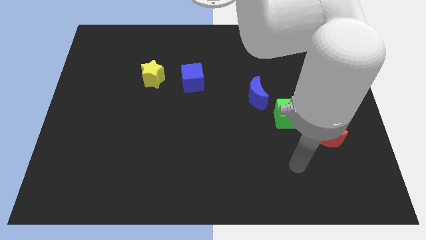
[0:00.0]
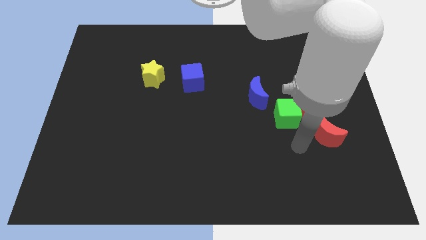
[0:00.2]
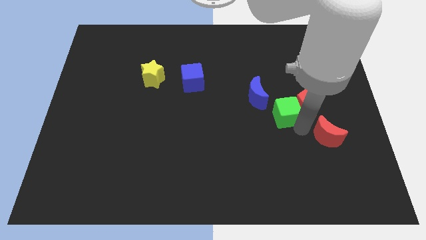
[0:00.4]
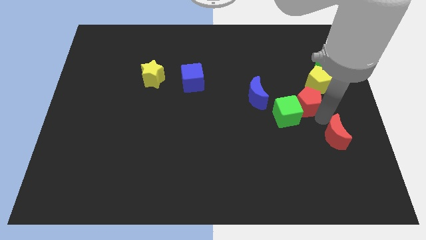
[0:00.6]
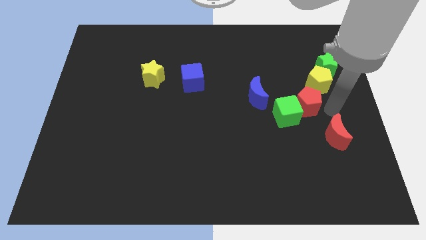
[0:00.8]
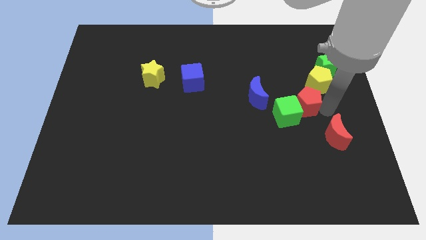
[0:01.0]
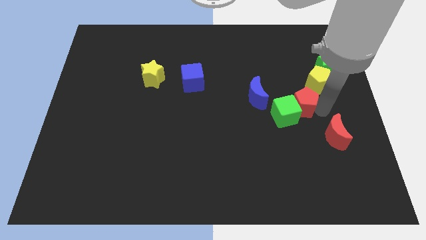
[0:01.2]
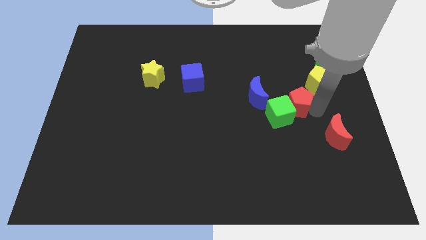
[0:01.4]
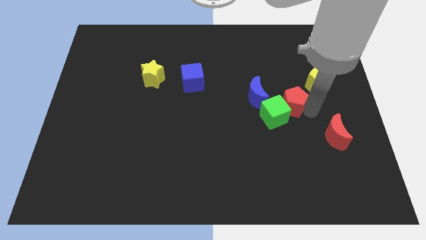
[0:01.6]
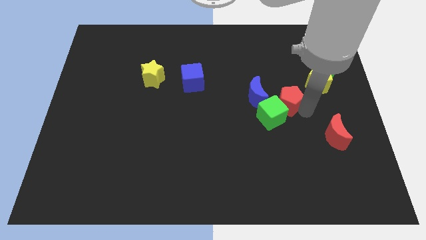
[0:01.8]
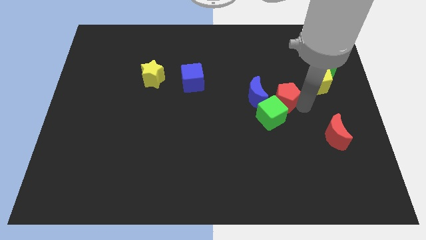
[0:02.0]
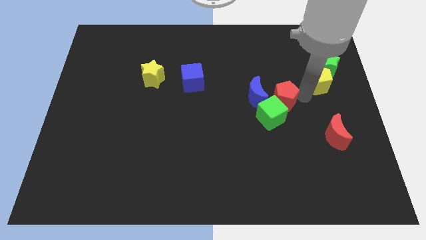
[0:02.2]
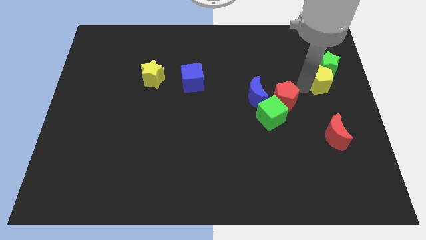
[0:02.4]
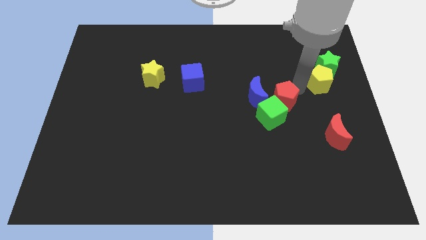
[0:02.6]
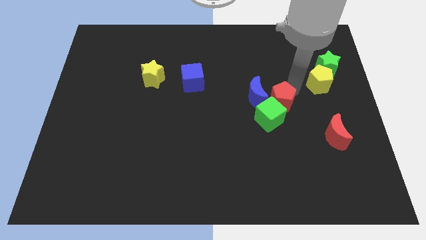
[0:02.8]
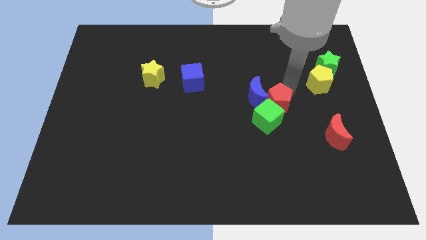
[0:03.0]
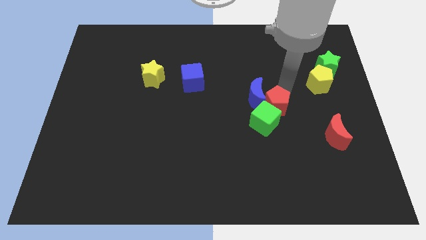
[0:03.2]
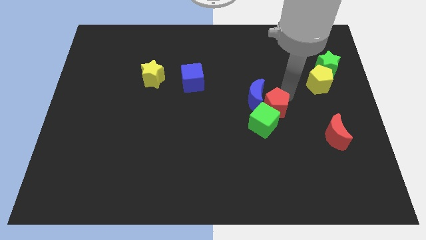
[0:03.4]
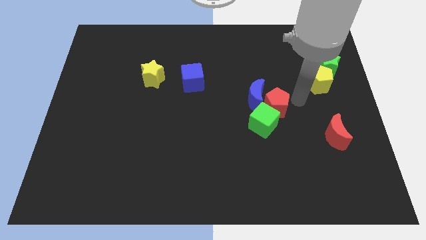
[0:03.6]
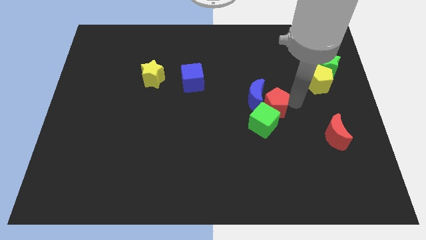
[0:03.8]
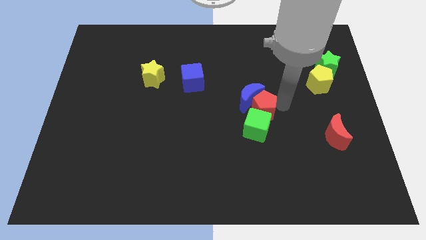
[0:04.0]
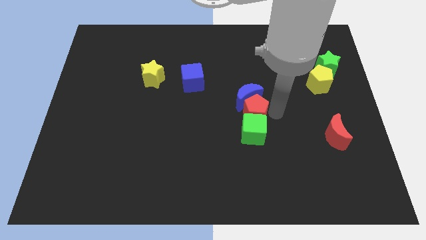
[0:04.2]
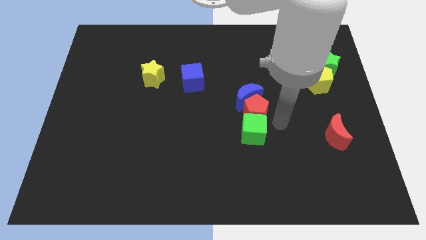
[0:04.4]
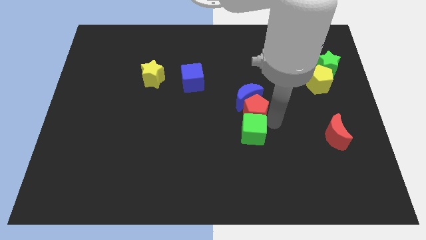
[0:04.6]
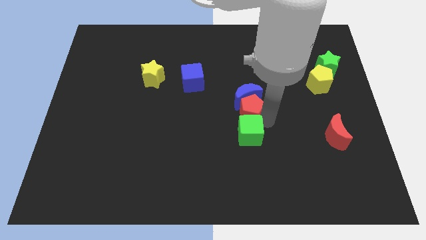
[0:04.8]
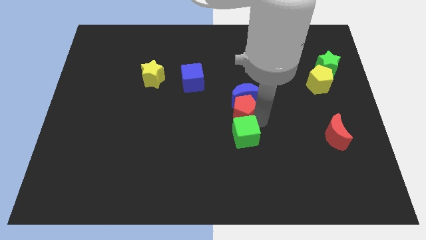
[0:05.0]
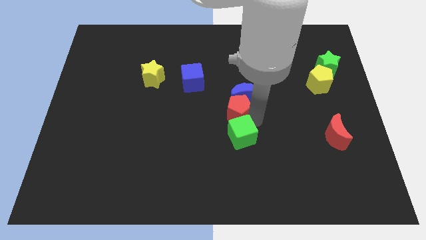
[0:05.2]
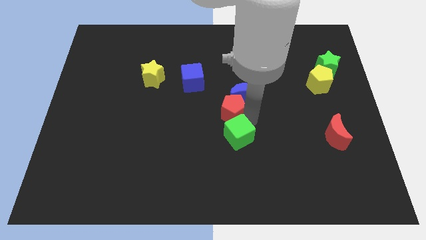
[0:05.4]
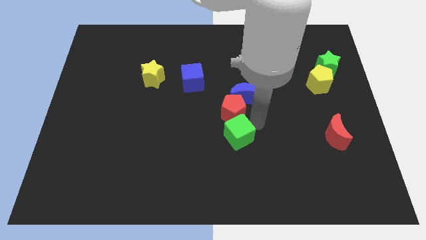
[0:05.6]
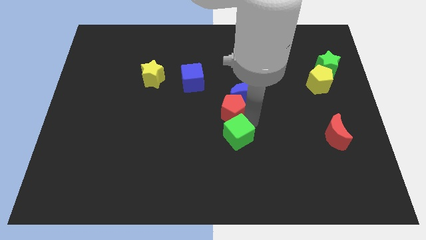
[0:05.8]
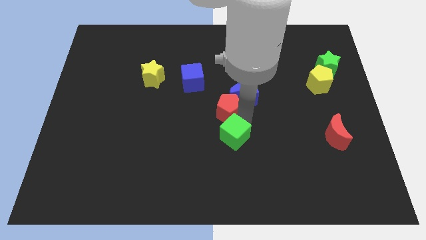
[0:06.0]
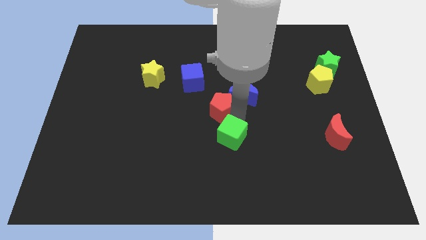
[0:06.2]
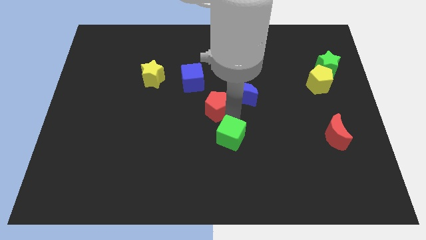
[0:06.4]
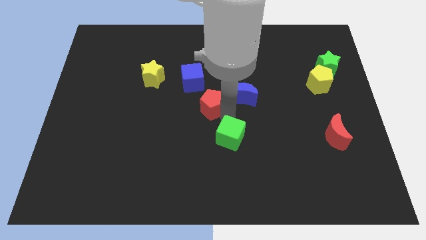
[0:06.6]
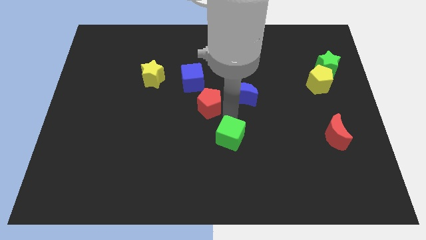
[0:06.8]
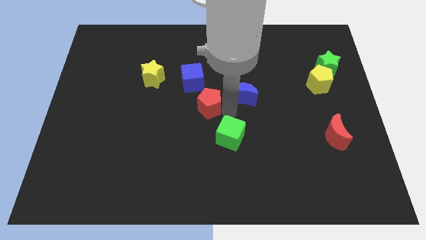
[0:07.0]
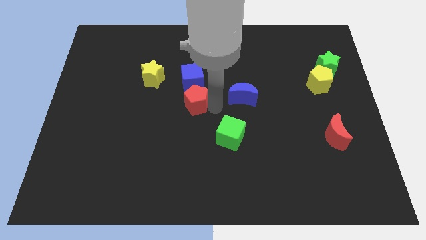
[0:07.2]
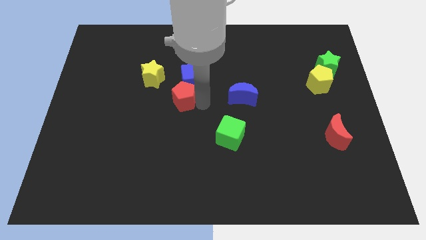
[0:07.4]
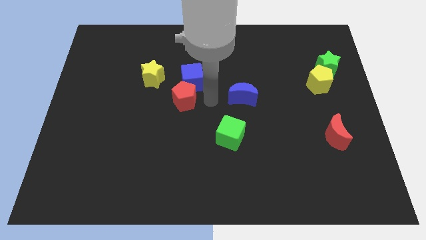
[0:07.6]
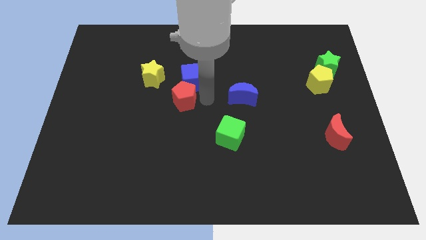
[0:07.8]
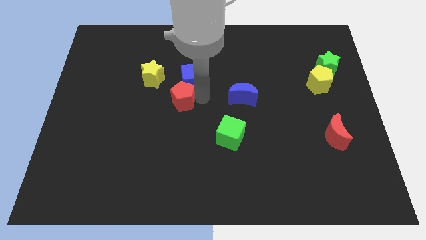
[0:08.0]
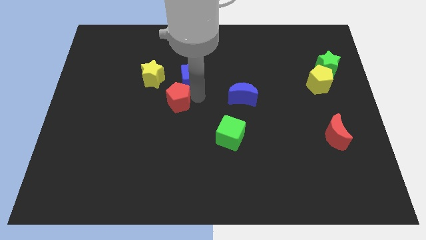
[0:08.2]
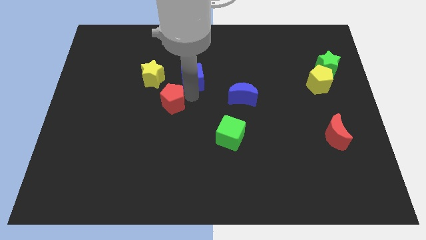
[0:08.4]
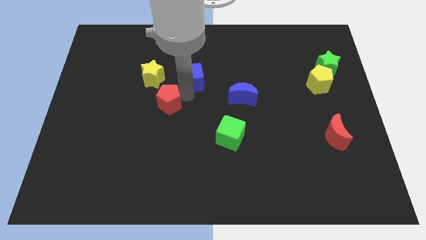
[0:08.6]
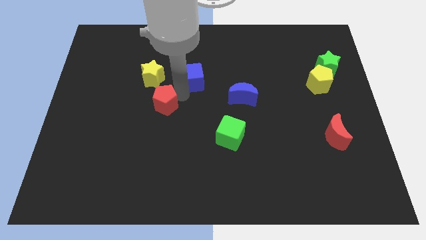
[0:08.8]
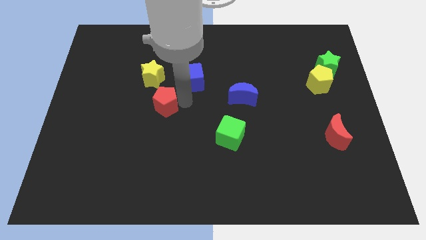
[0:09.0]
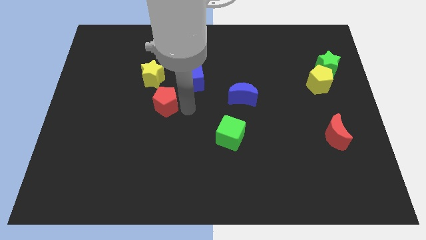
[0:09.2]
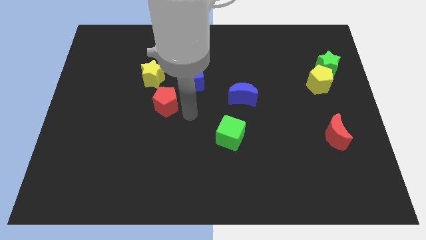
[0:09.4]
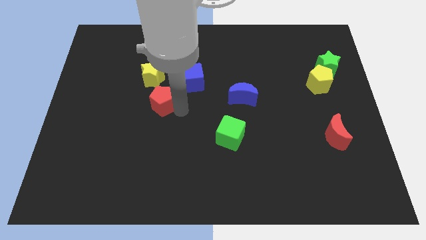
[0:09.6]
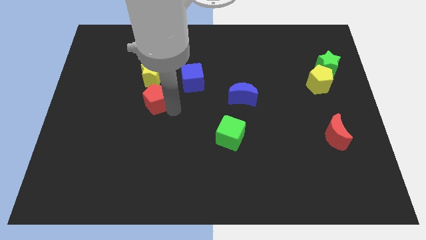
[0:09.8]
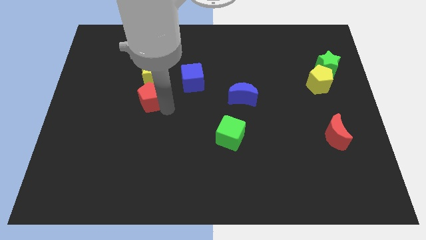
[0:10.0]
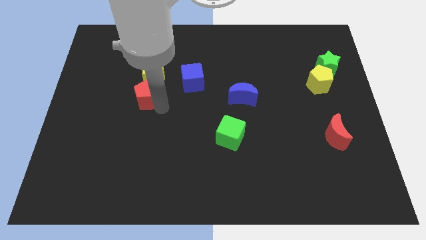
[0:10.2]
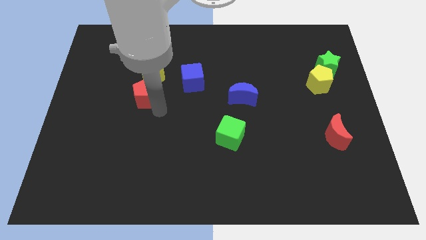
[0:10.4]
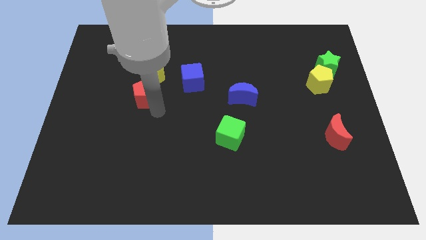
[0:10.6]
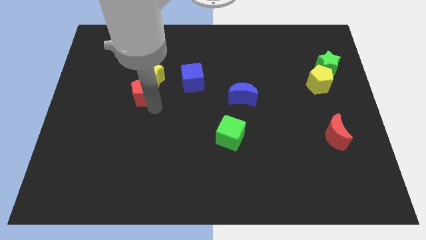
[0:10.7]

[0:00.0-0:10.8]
move the red pentagon just left of the blue cube

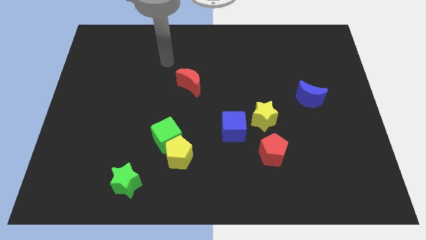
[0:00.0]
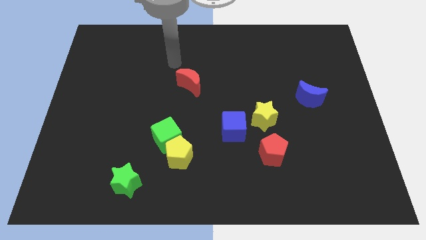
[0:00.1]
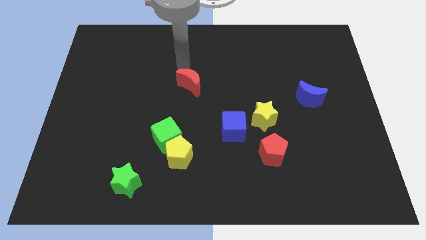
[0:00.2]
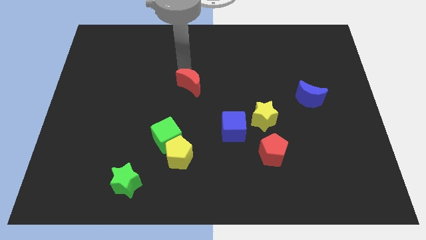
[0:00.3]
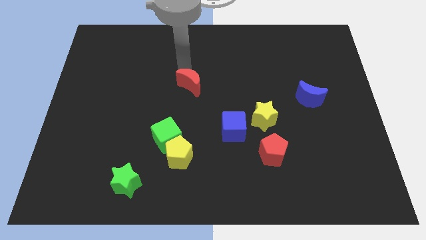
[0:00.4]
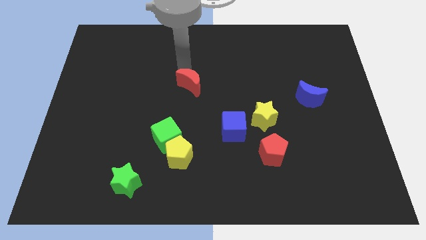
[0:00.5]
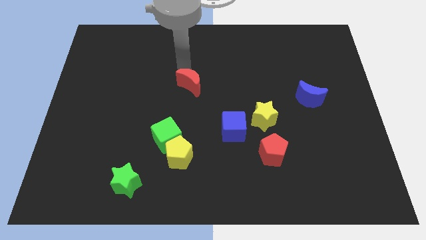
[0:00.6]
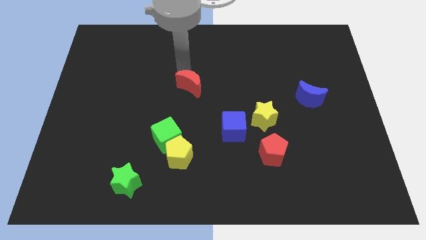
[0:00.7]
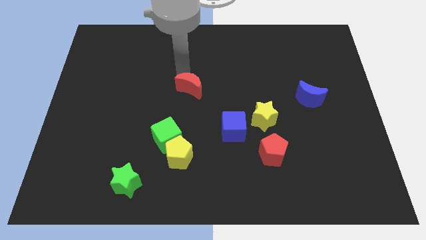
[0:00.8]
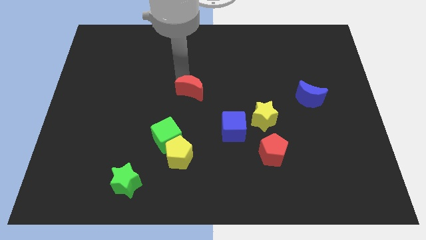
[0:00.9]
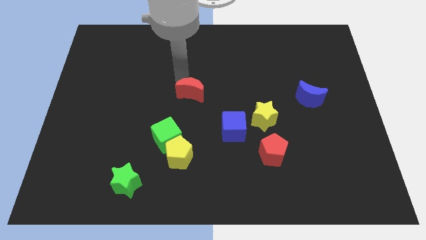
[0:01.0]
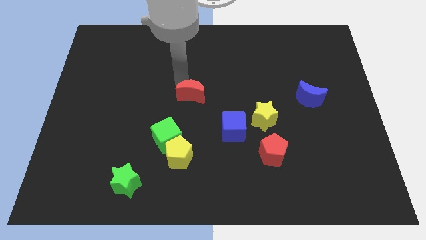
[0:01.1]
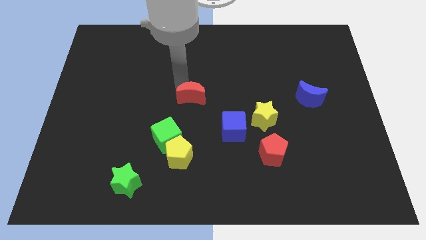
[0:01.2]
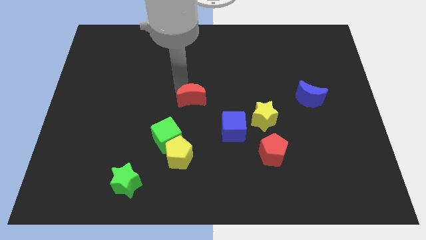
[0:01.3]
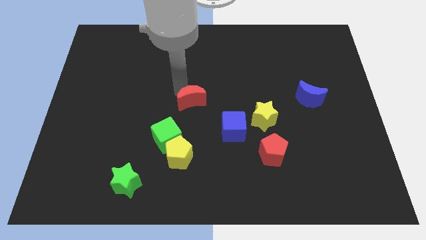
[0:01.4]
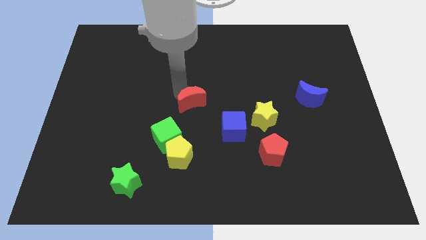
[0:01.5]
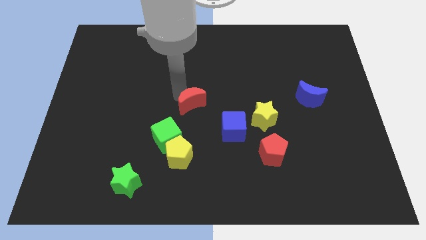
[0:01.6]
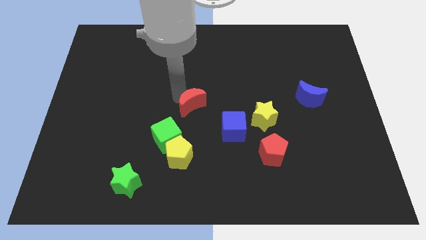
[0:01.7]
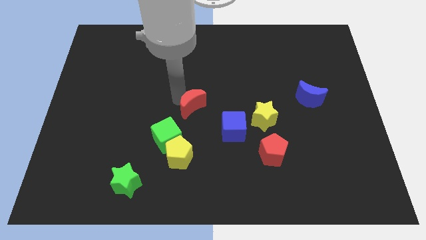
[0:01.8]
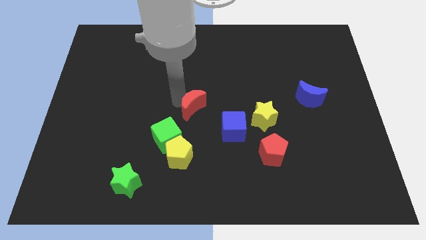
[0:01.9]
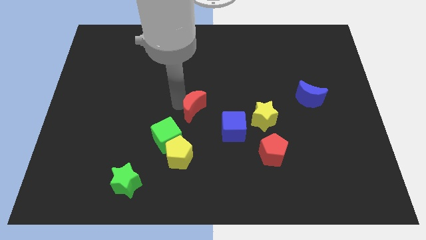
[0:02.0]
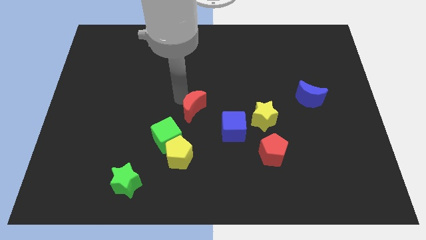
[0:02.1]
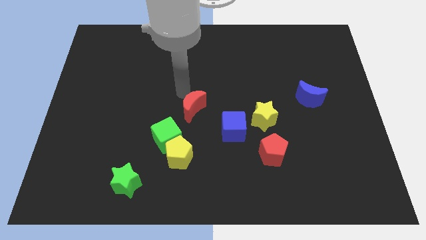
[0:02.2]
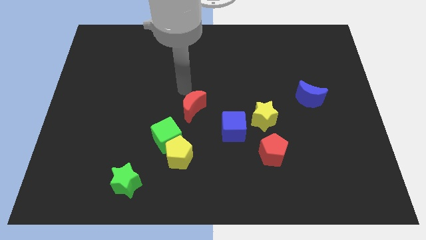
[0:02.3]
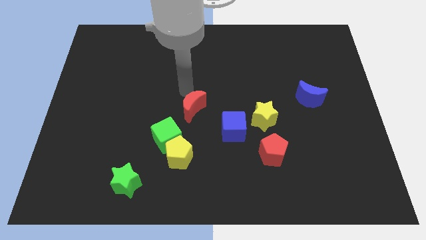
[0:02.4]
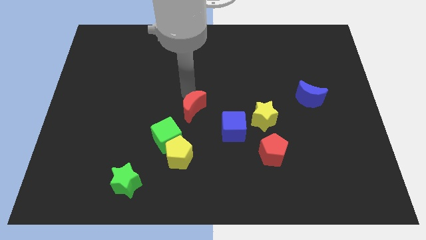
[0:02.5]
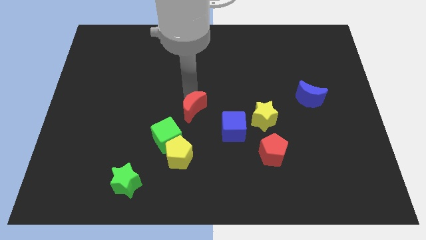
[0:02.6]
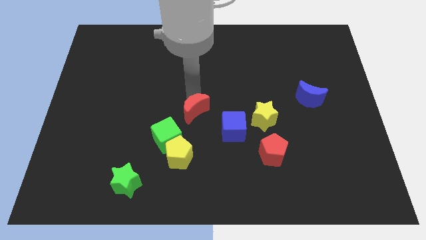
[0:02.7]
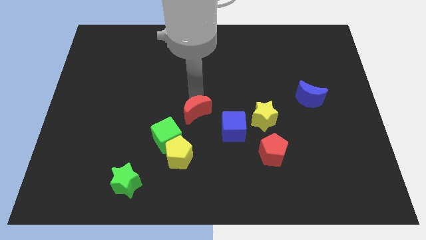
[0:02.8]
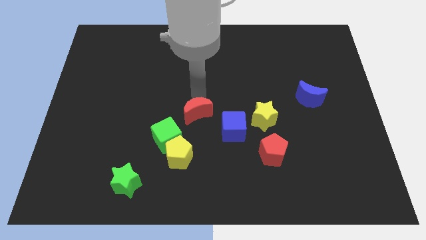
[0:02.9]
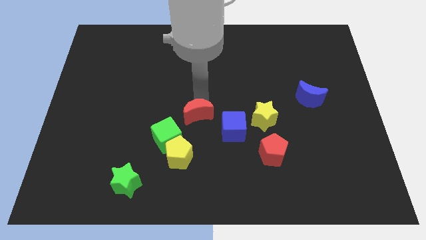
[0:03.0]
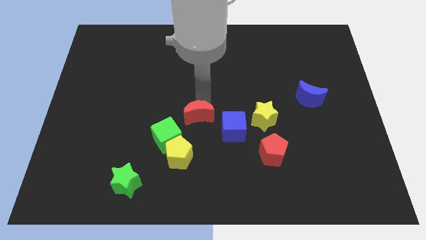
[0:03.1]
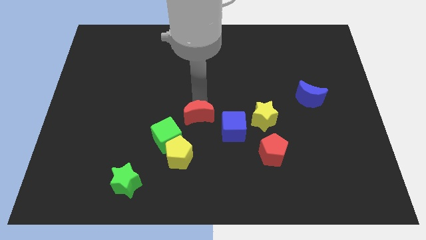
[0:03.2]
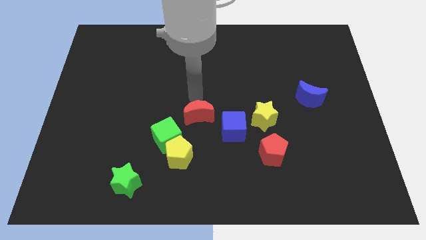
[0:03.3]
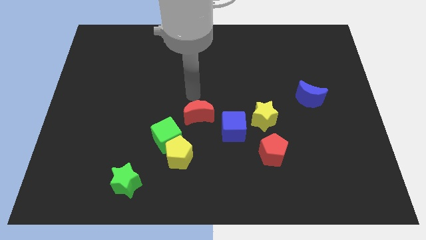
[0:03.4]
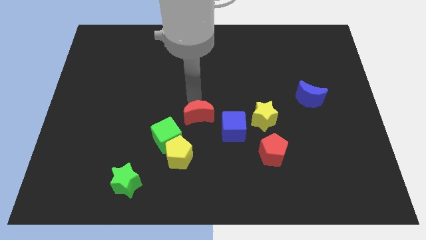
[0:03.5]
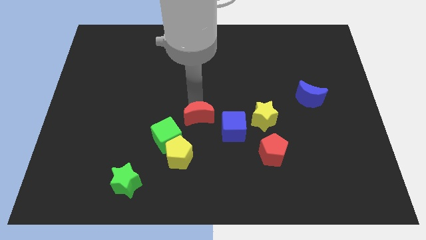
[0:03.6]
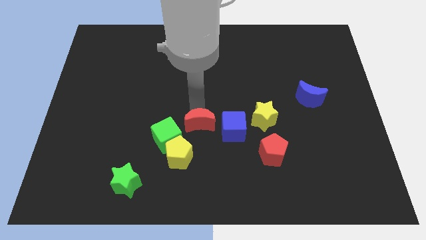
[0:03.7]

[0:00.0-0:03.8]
move the red moon to the top right of the yellow pentagon
